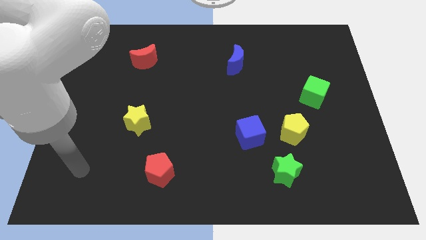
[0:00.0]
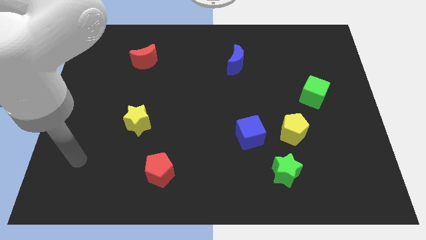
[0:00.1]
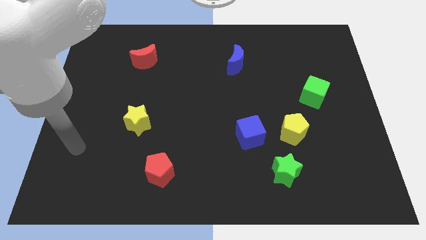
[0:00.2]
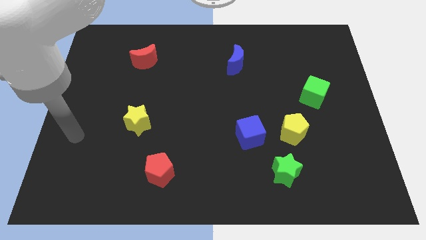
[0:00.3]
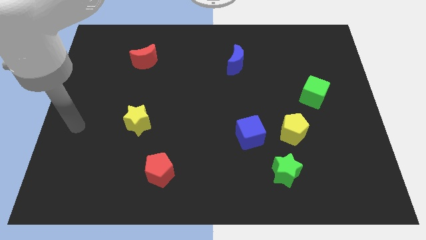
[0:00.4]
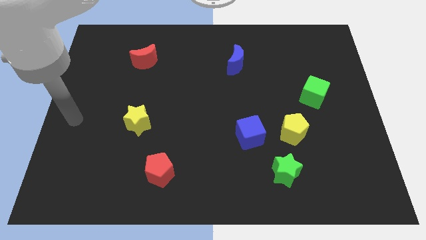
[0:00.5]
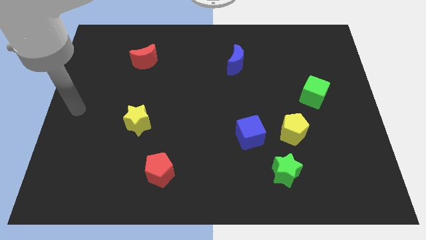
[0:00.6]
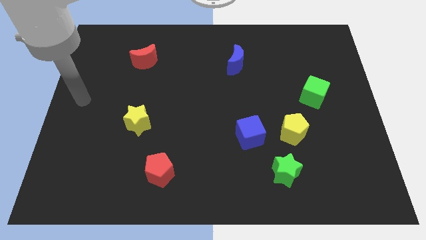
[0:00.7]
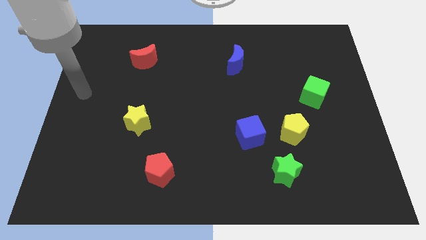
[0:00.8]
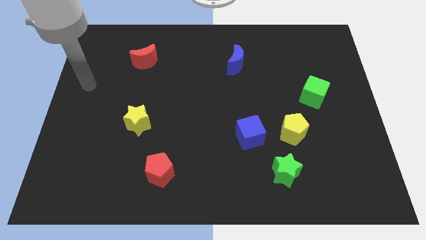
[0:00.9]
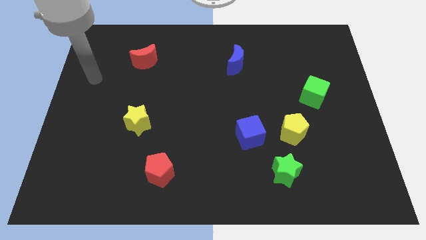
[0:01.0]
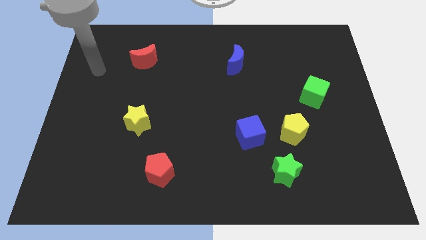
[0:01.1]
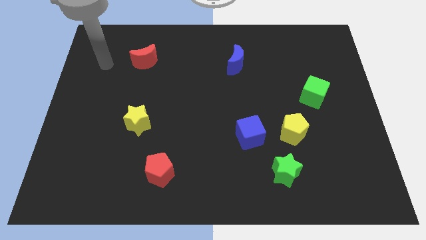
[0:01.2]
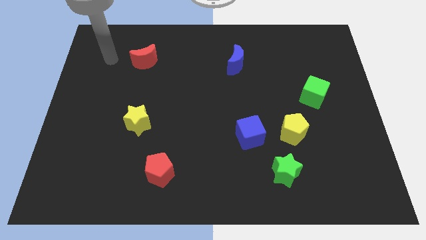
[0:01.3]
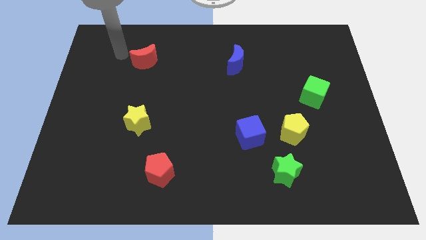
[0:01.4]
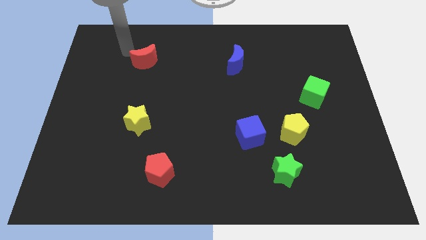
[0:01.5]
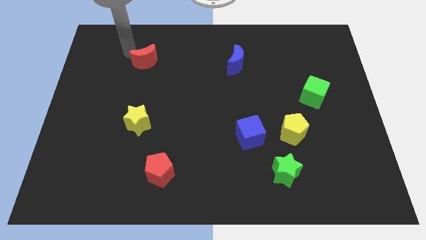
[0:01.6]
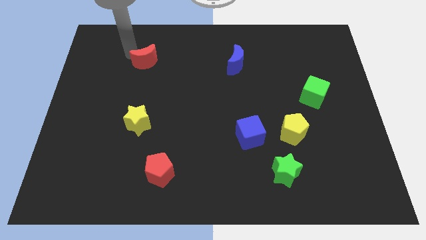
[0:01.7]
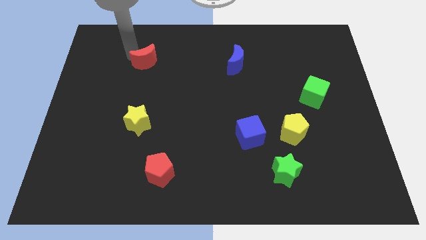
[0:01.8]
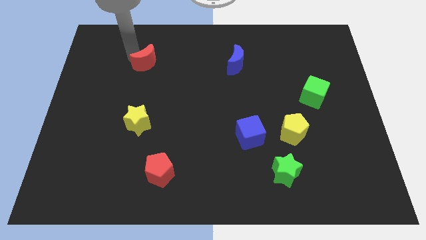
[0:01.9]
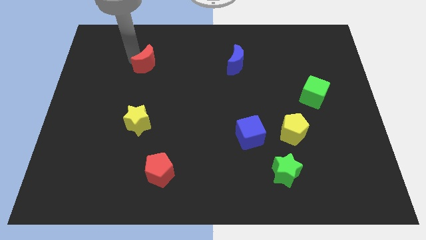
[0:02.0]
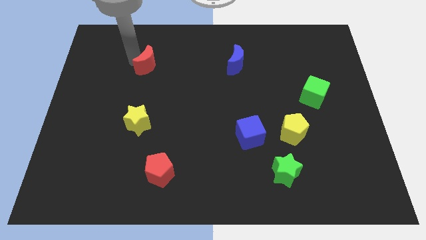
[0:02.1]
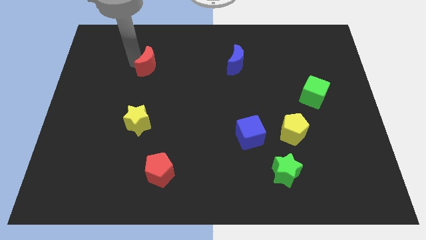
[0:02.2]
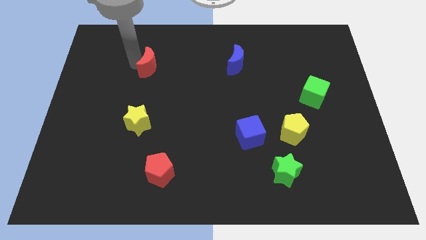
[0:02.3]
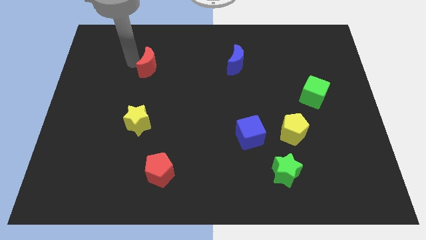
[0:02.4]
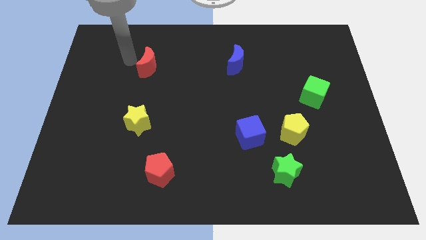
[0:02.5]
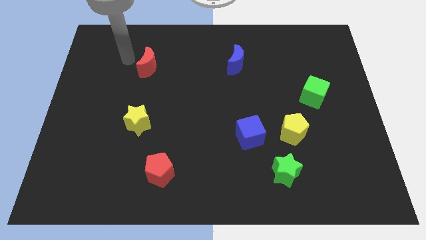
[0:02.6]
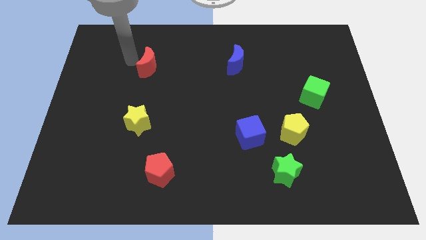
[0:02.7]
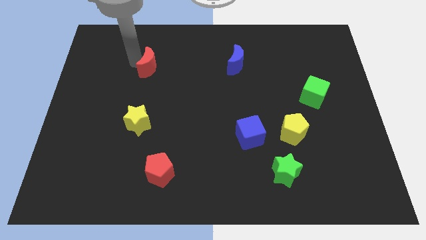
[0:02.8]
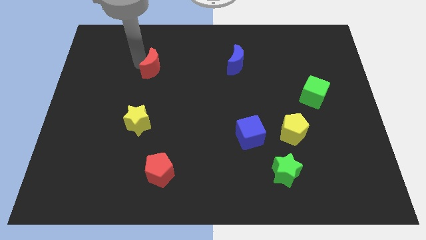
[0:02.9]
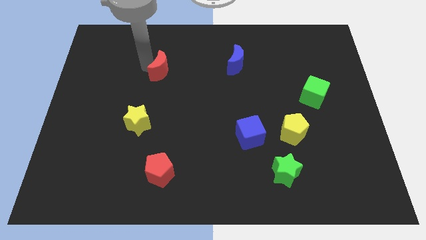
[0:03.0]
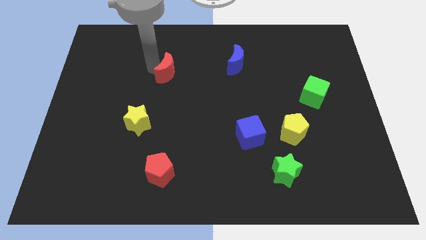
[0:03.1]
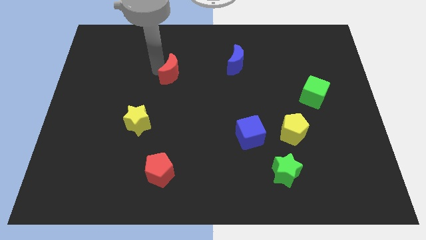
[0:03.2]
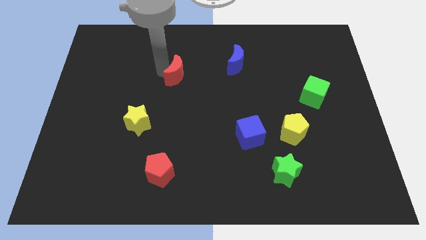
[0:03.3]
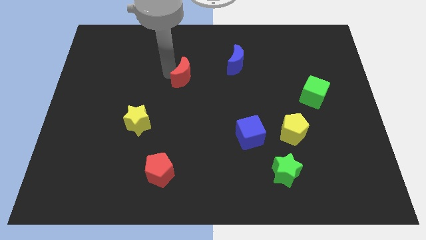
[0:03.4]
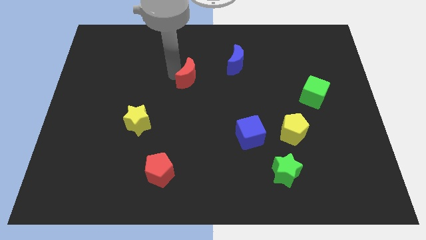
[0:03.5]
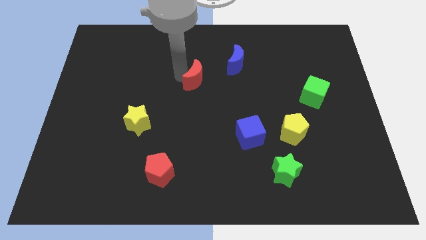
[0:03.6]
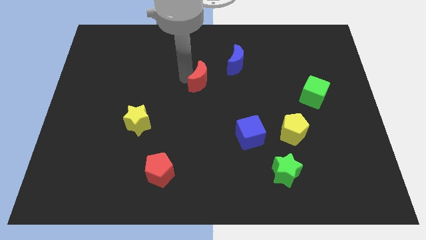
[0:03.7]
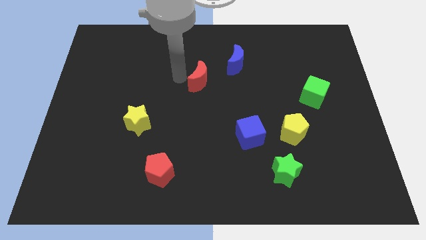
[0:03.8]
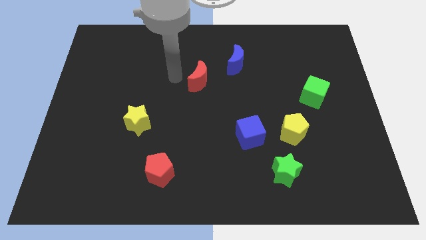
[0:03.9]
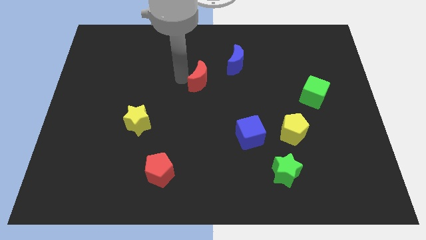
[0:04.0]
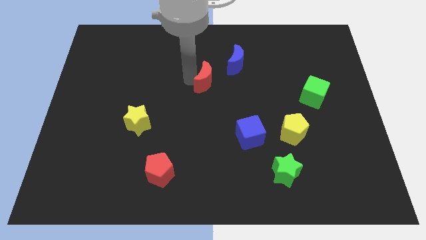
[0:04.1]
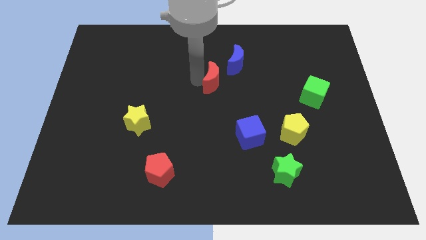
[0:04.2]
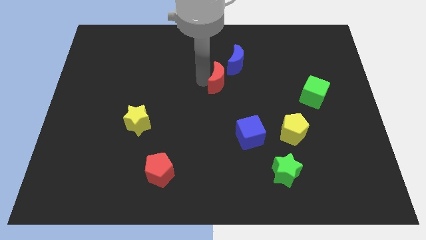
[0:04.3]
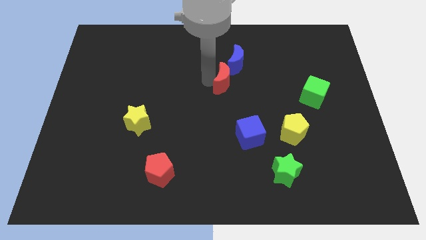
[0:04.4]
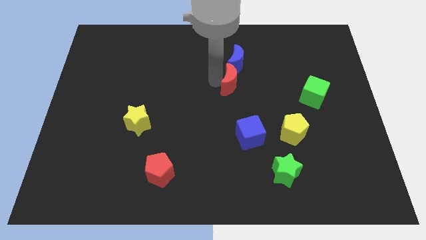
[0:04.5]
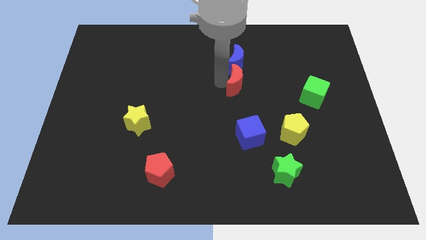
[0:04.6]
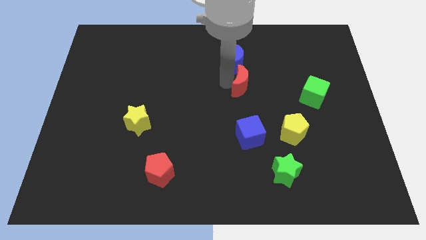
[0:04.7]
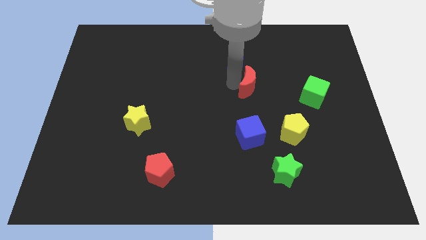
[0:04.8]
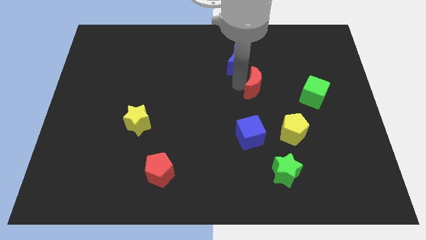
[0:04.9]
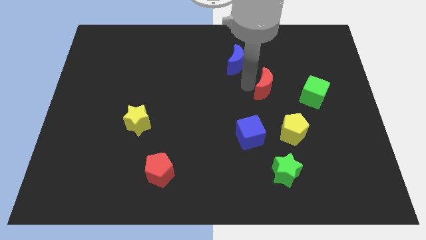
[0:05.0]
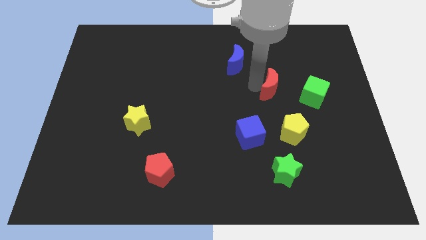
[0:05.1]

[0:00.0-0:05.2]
move the red moon to the top side of the yellow pentagon

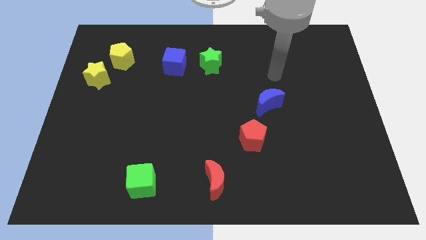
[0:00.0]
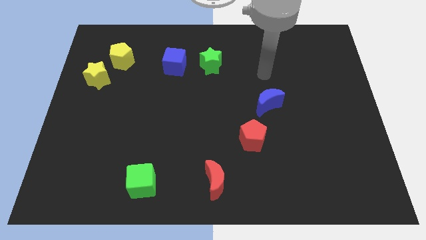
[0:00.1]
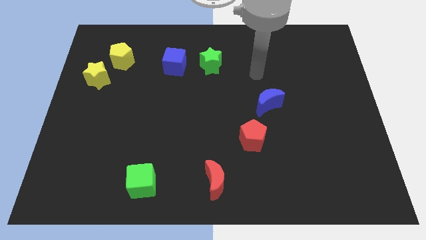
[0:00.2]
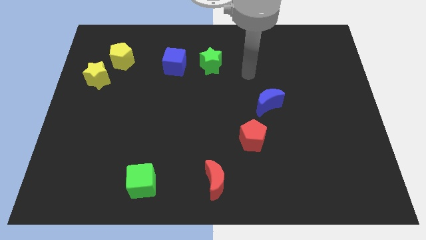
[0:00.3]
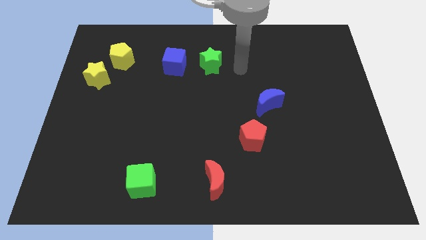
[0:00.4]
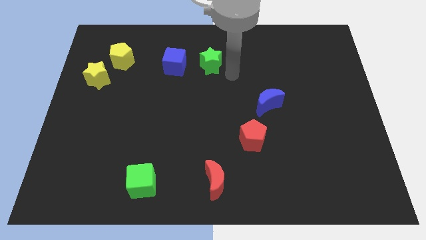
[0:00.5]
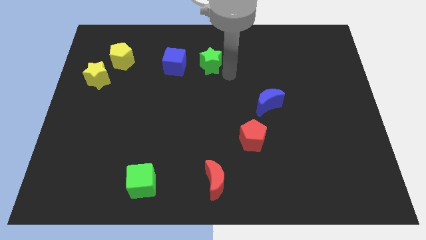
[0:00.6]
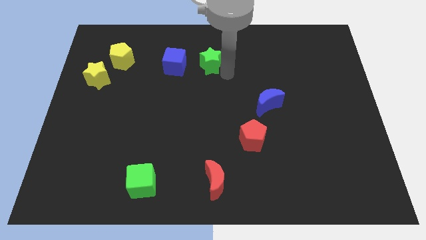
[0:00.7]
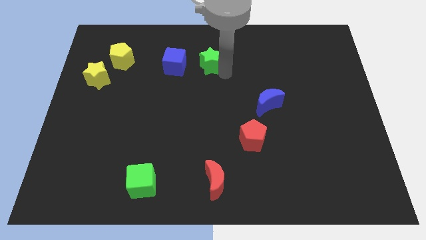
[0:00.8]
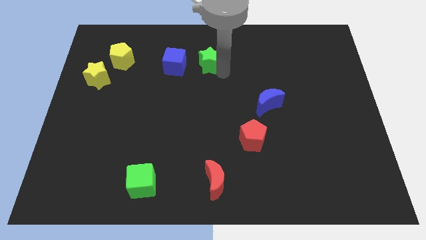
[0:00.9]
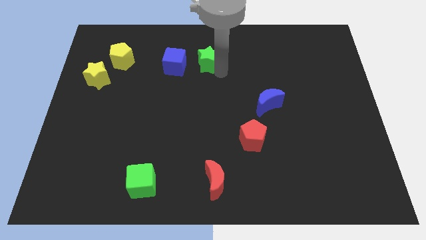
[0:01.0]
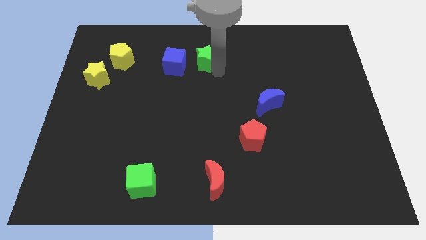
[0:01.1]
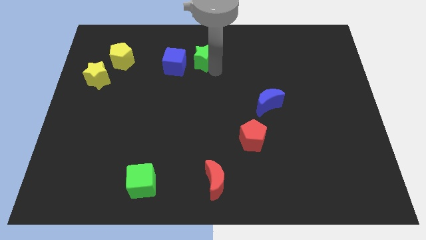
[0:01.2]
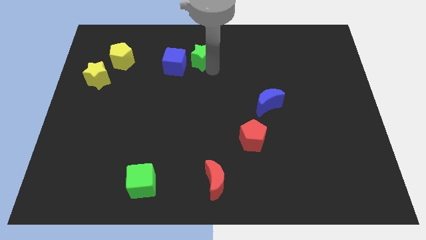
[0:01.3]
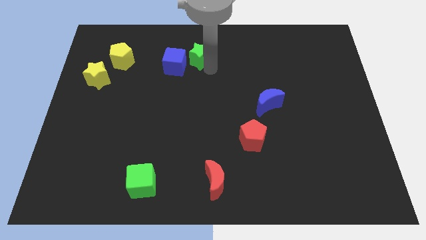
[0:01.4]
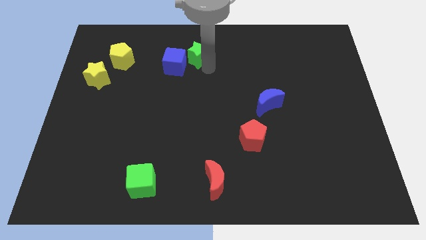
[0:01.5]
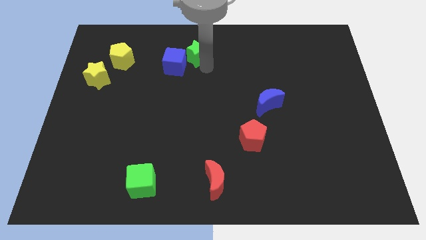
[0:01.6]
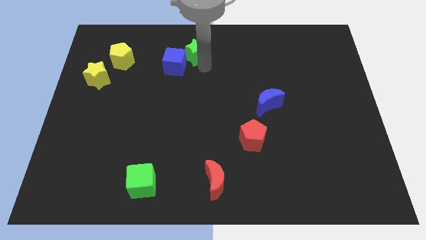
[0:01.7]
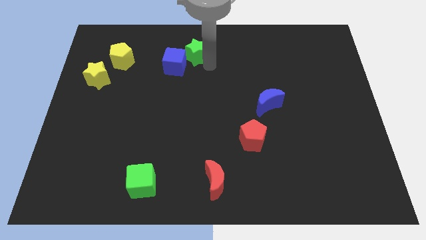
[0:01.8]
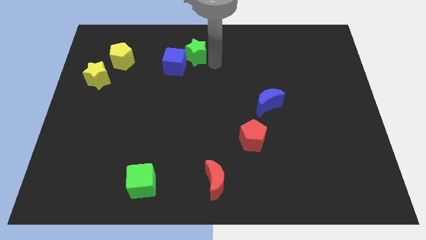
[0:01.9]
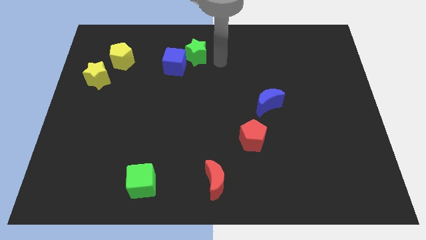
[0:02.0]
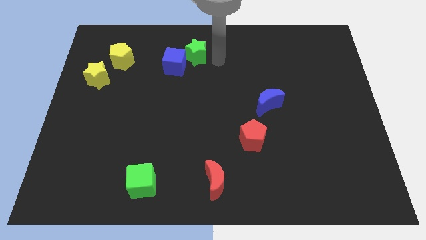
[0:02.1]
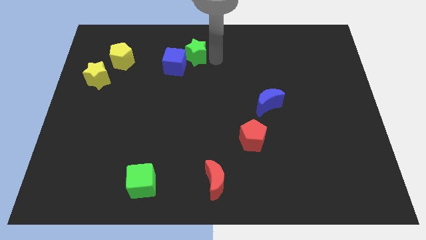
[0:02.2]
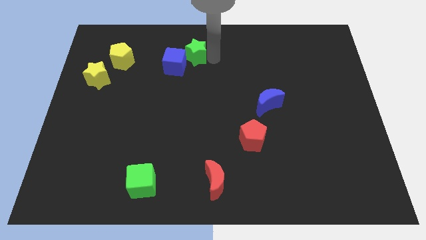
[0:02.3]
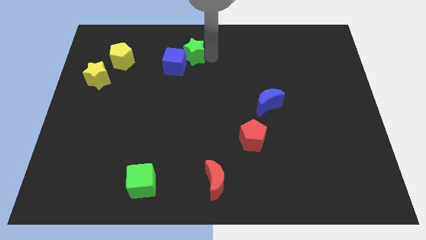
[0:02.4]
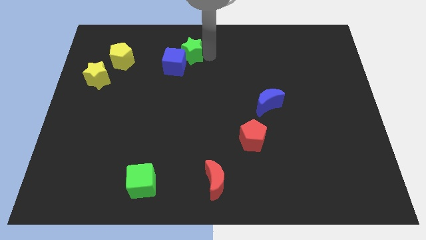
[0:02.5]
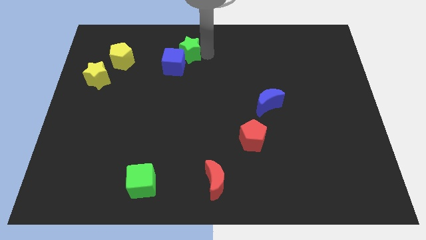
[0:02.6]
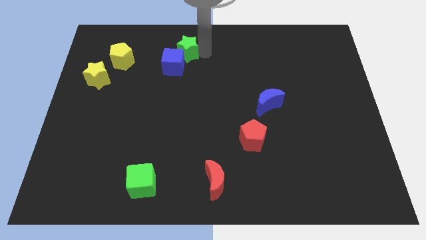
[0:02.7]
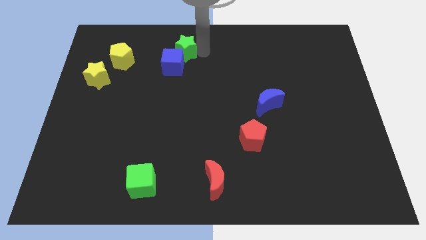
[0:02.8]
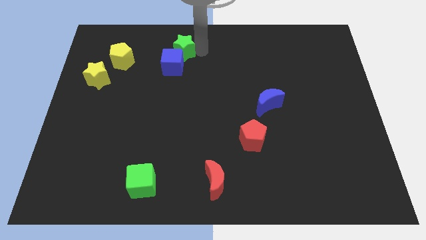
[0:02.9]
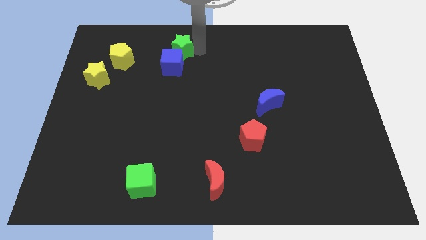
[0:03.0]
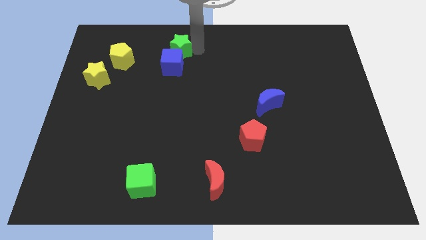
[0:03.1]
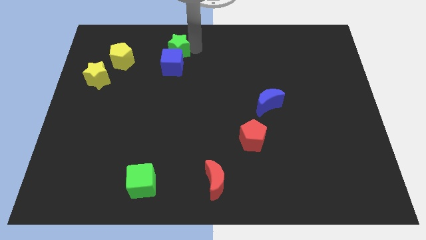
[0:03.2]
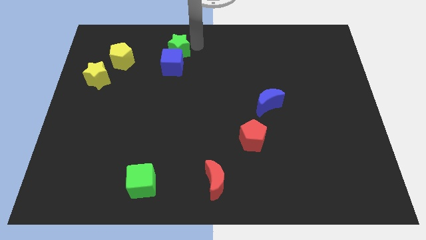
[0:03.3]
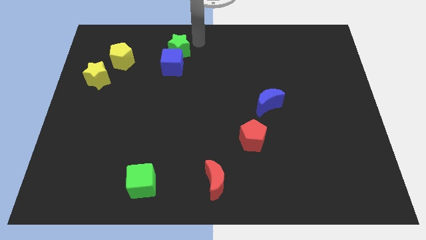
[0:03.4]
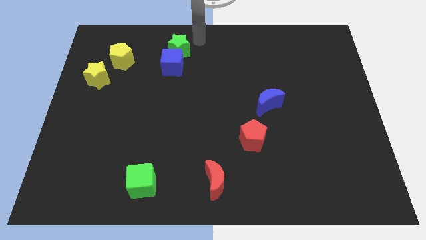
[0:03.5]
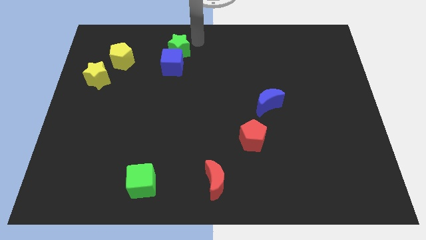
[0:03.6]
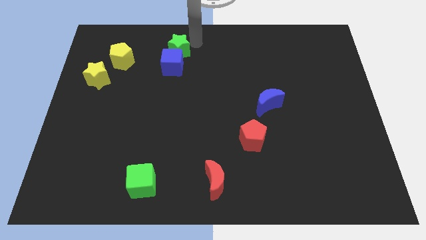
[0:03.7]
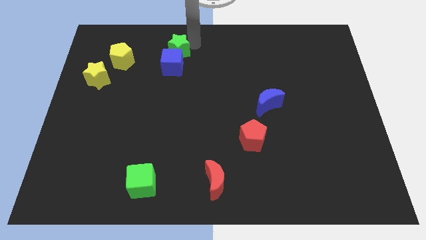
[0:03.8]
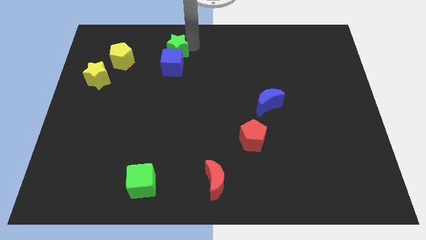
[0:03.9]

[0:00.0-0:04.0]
move the green star right of the yellow pentagon
